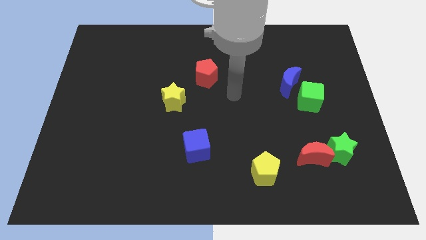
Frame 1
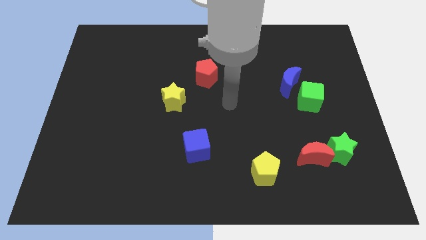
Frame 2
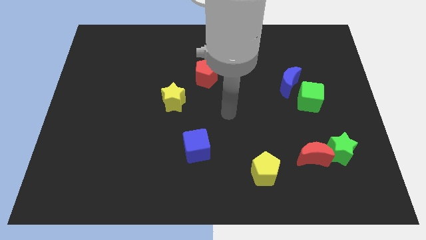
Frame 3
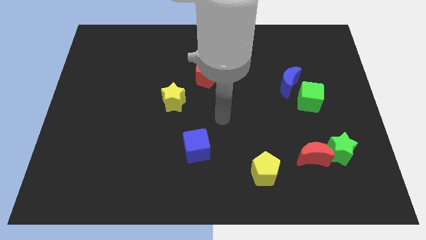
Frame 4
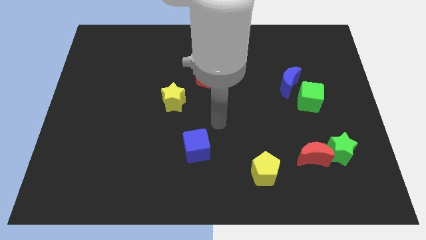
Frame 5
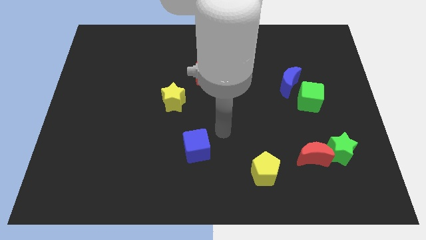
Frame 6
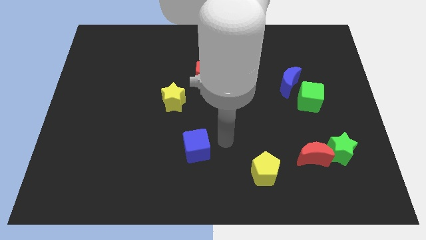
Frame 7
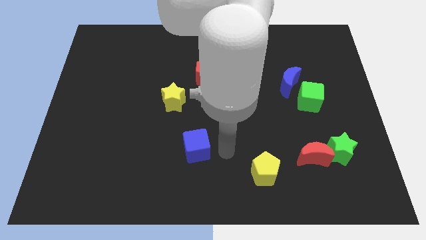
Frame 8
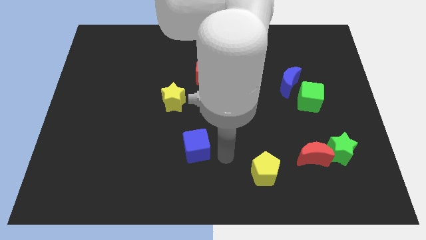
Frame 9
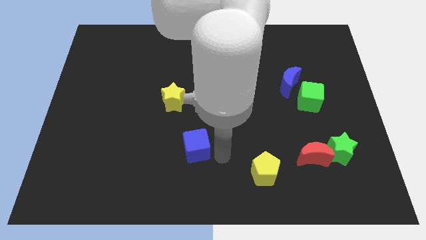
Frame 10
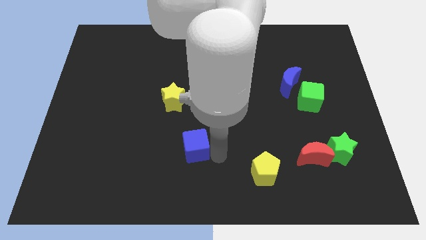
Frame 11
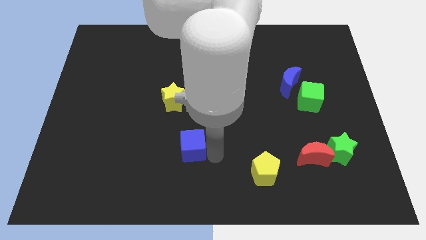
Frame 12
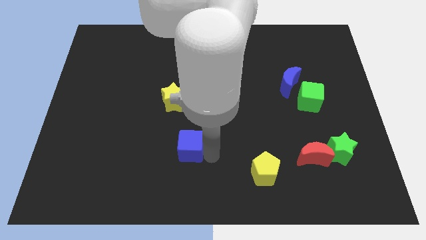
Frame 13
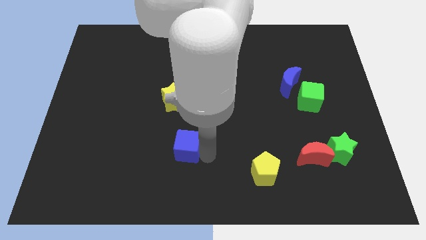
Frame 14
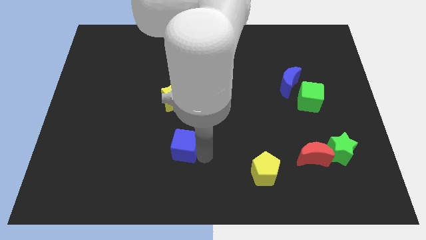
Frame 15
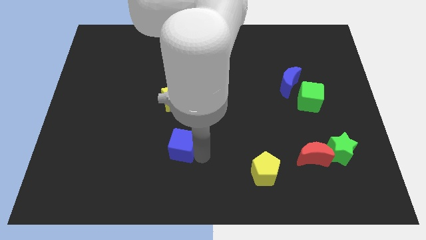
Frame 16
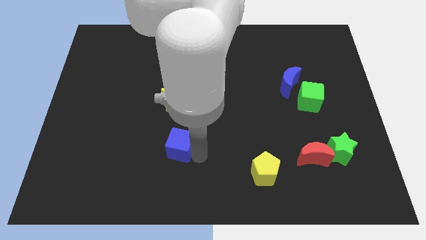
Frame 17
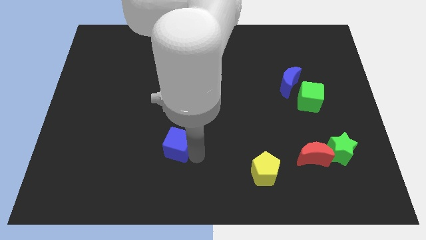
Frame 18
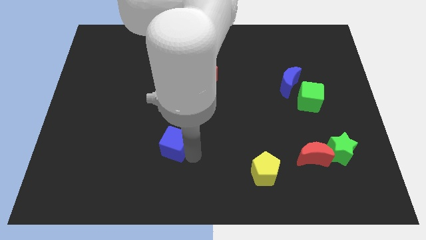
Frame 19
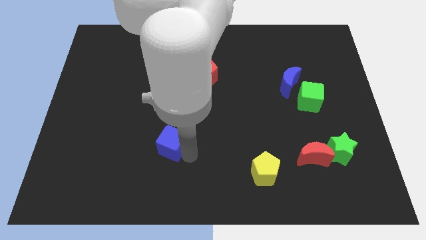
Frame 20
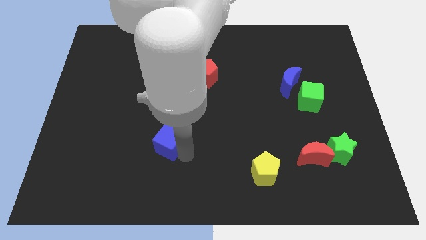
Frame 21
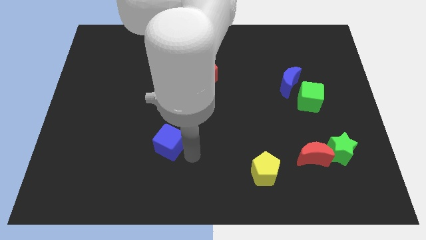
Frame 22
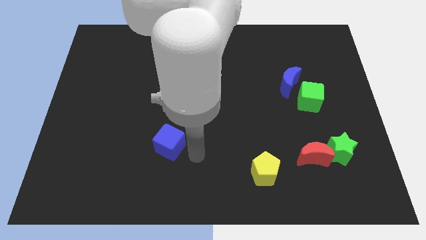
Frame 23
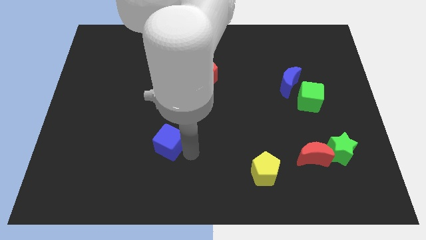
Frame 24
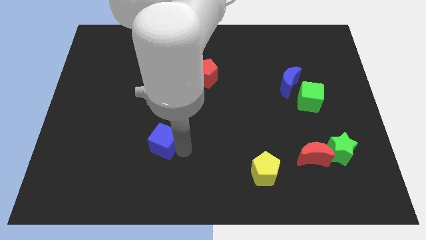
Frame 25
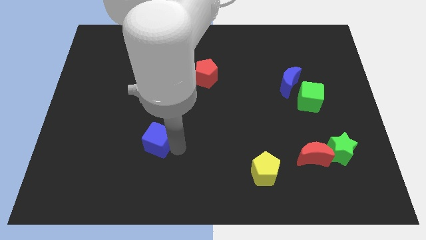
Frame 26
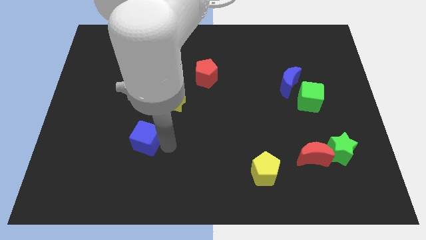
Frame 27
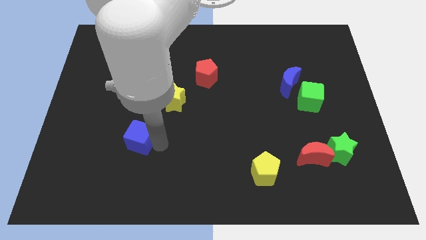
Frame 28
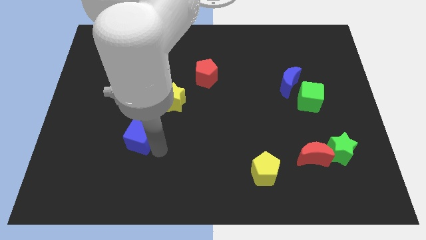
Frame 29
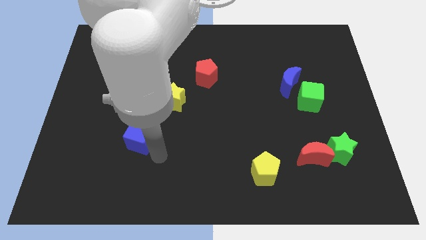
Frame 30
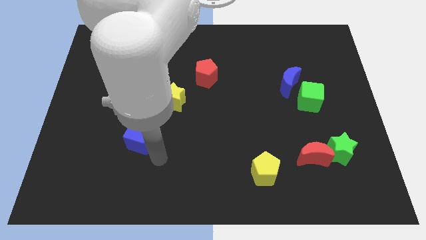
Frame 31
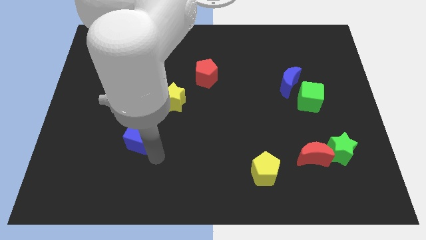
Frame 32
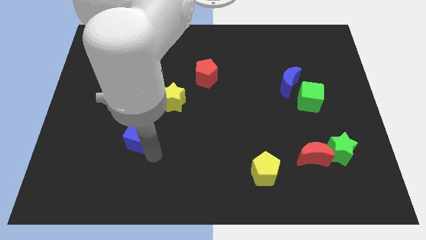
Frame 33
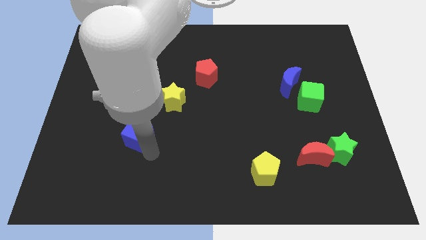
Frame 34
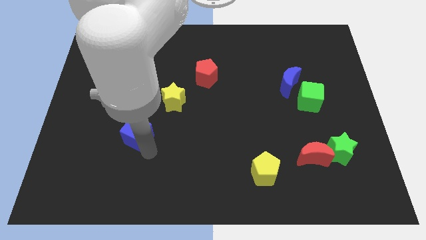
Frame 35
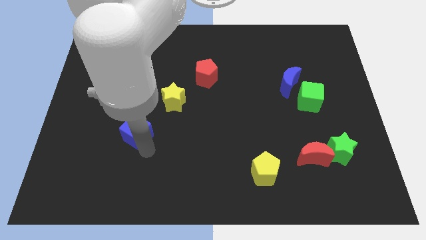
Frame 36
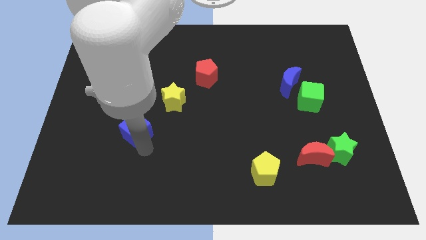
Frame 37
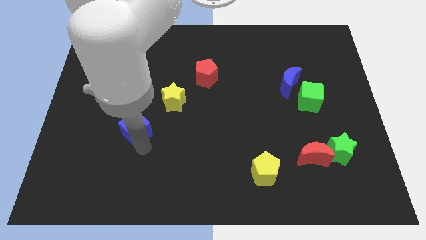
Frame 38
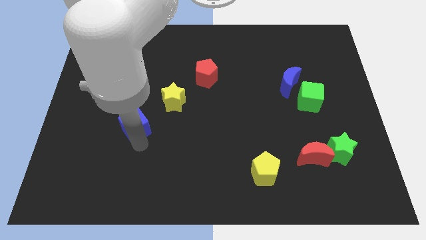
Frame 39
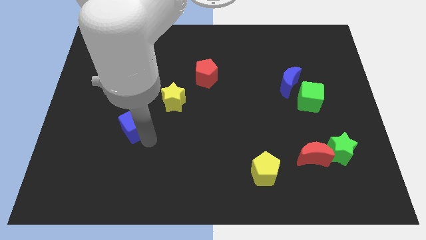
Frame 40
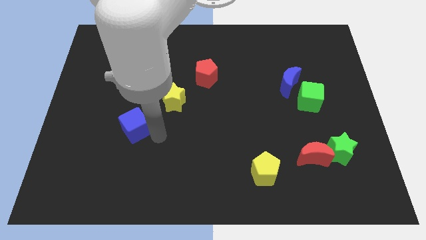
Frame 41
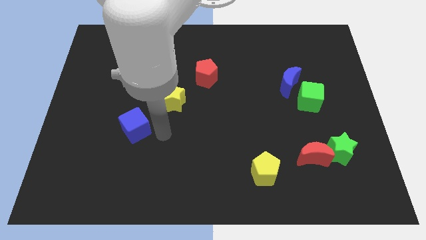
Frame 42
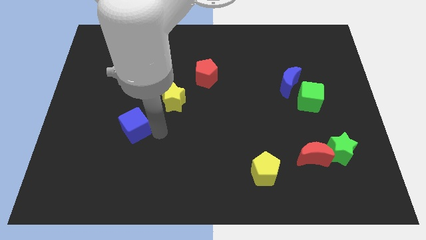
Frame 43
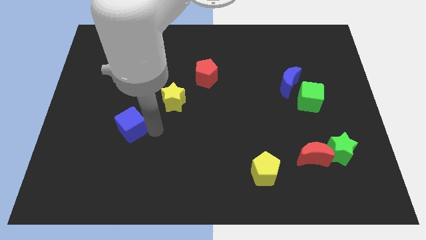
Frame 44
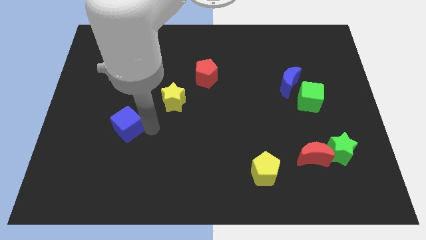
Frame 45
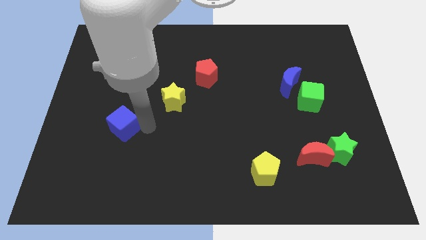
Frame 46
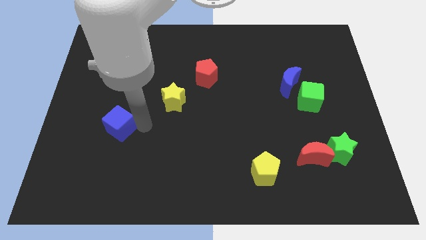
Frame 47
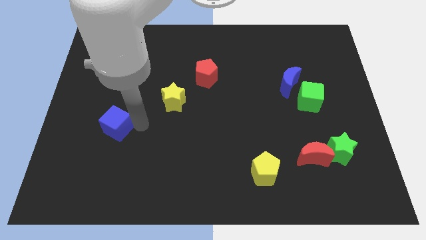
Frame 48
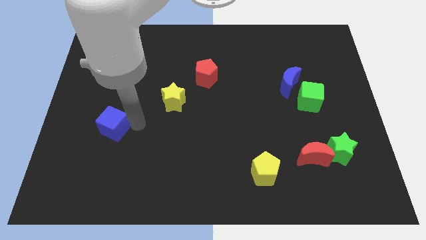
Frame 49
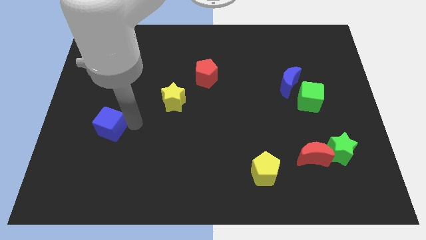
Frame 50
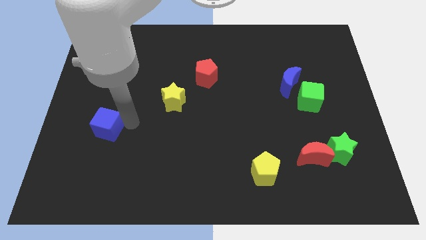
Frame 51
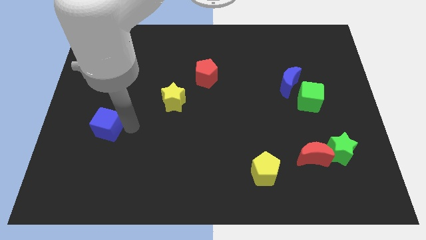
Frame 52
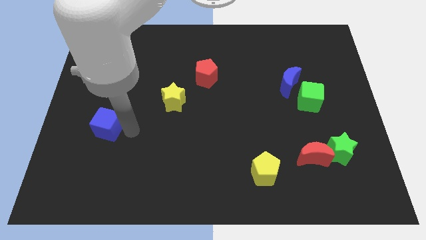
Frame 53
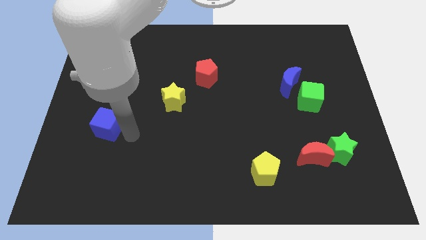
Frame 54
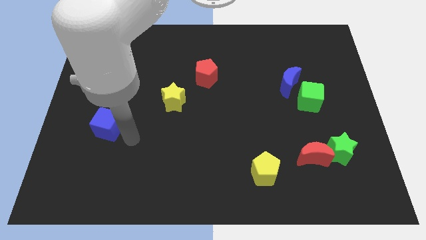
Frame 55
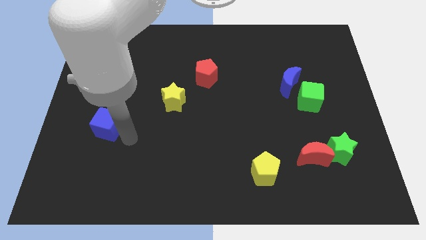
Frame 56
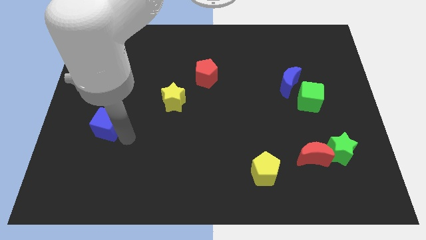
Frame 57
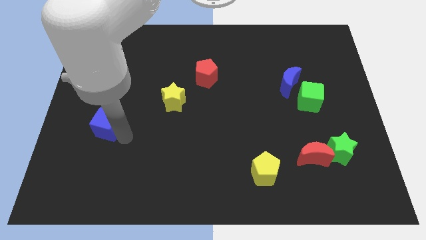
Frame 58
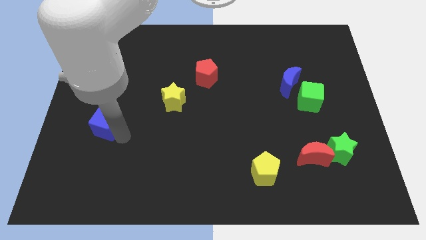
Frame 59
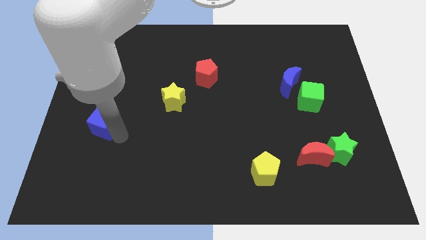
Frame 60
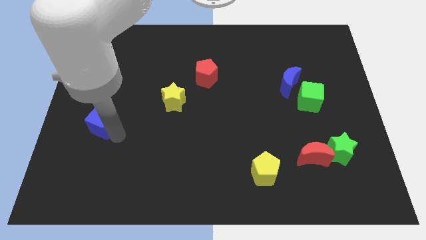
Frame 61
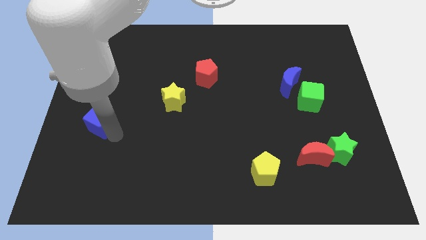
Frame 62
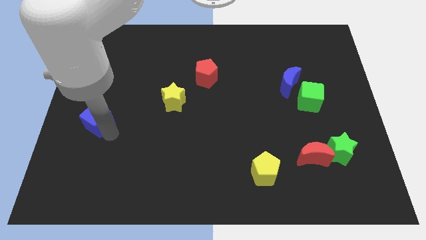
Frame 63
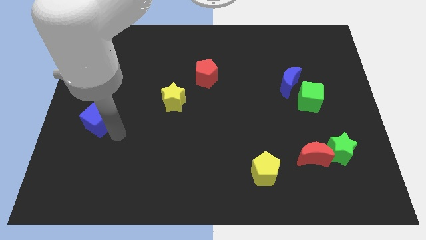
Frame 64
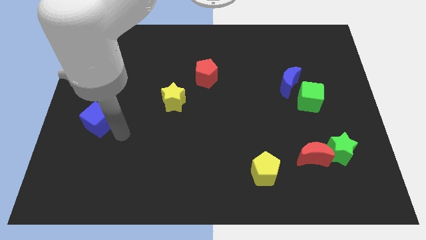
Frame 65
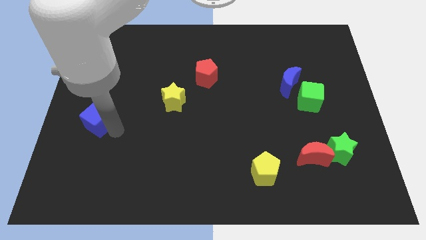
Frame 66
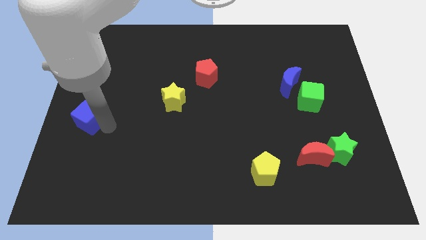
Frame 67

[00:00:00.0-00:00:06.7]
put the blue cube to the left side

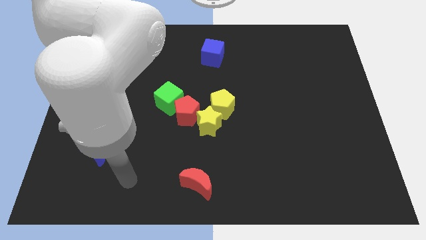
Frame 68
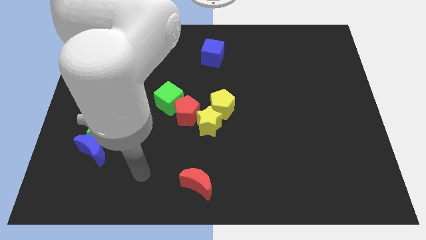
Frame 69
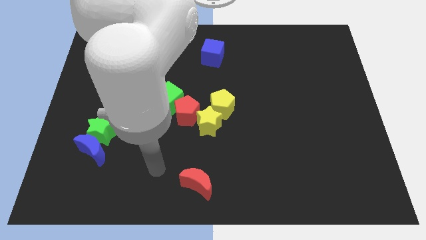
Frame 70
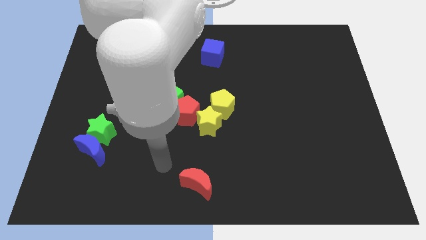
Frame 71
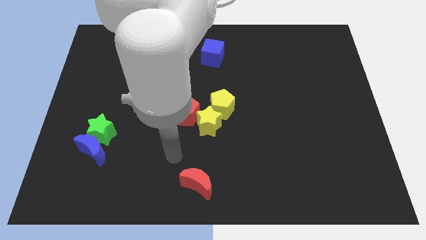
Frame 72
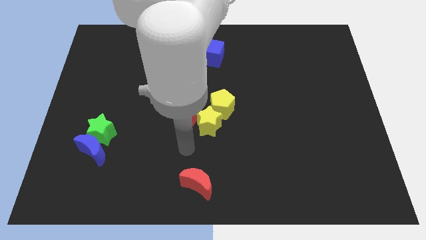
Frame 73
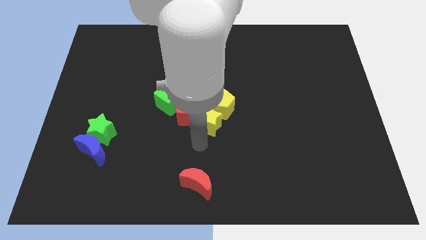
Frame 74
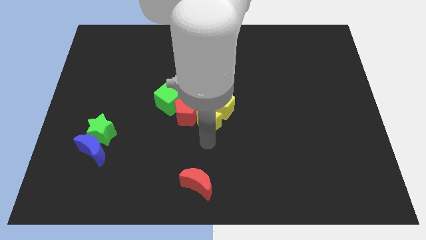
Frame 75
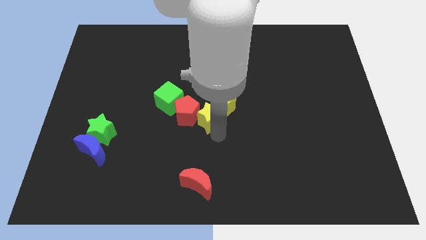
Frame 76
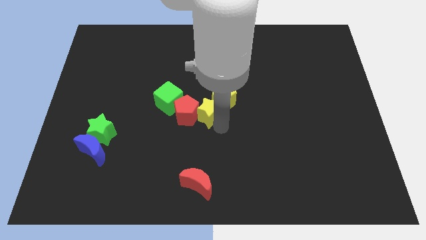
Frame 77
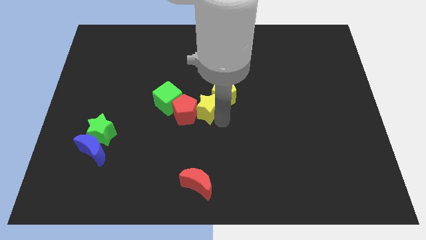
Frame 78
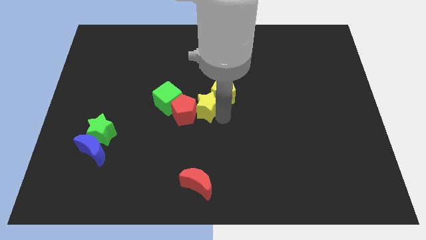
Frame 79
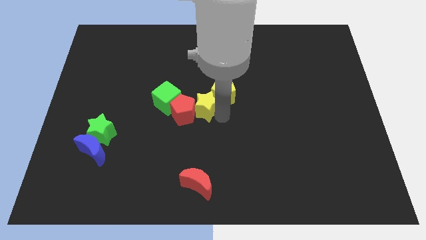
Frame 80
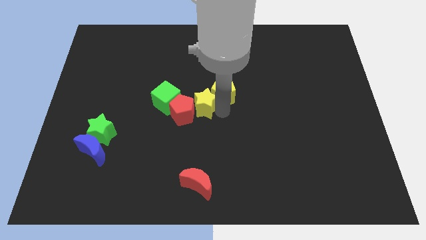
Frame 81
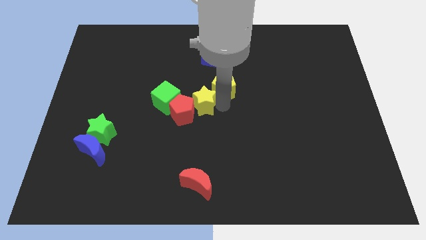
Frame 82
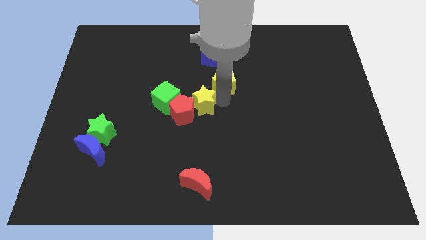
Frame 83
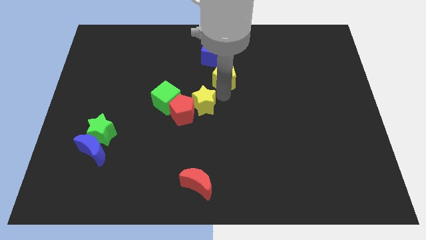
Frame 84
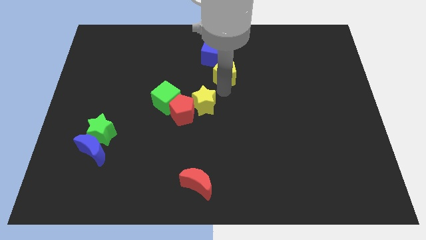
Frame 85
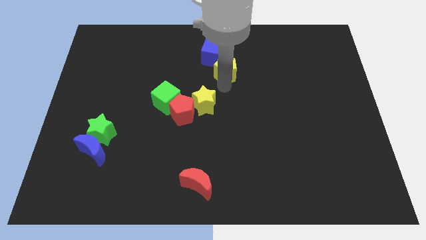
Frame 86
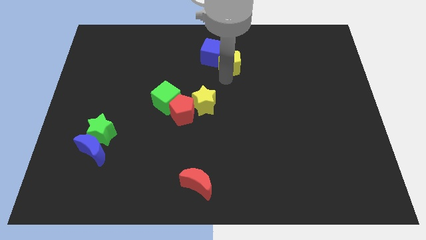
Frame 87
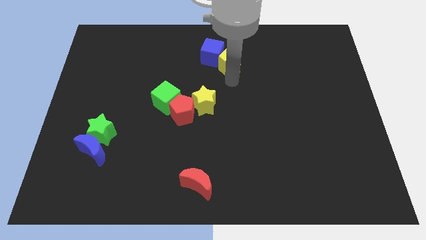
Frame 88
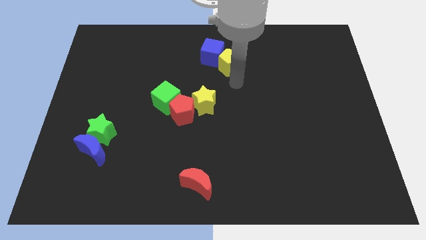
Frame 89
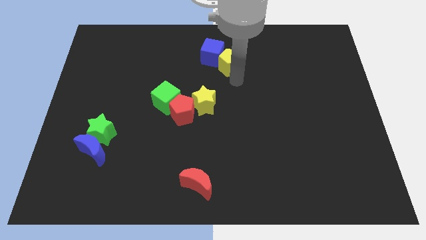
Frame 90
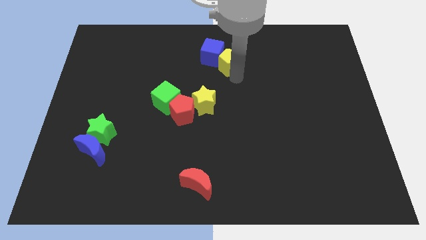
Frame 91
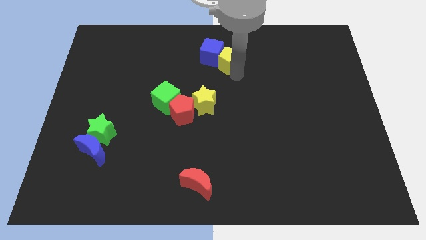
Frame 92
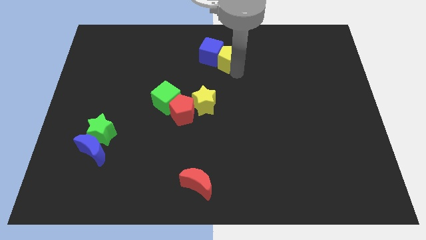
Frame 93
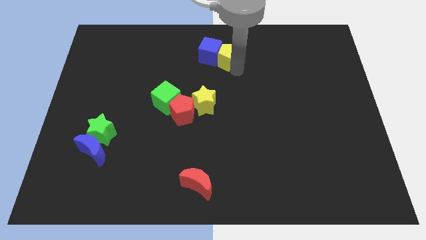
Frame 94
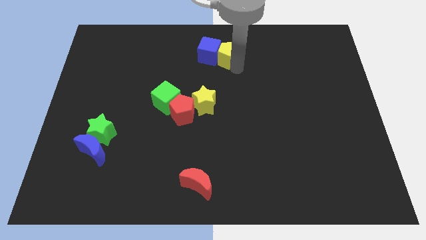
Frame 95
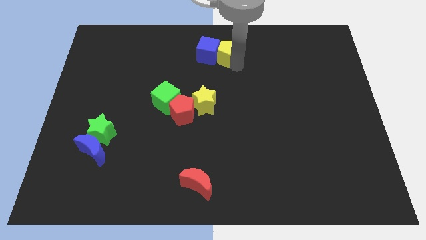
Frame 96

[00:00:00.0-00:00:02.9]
move the yellow pentagon to the towards your base
